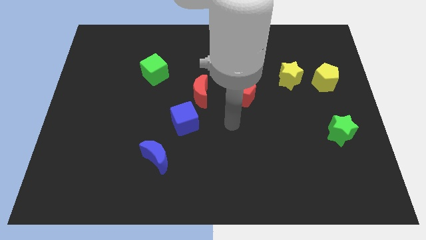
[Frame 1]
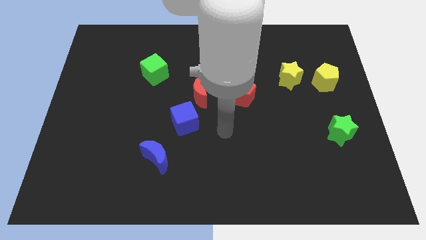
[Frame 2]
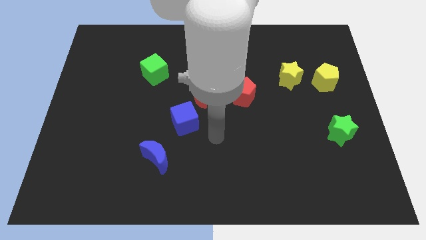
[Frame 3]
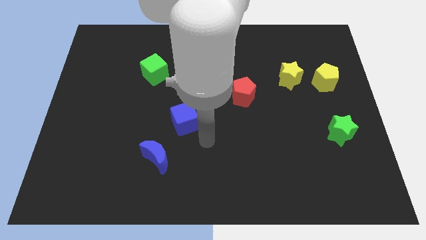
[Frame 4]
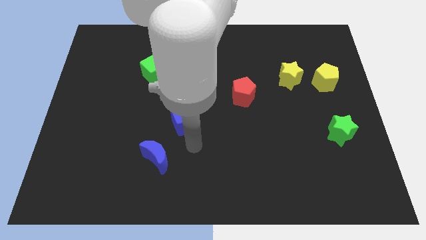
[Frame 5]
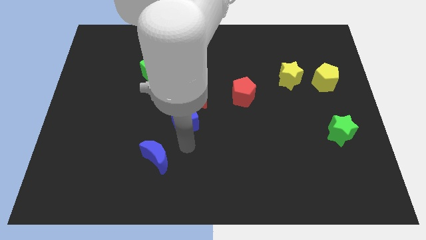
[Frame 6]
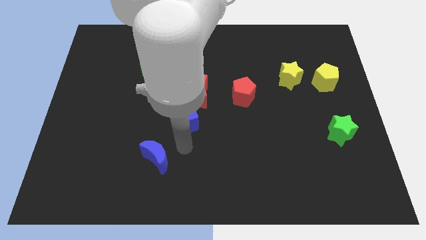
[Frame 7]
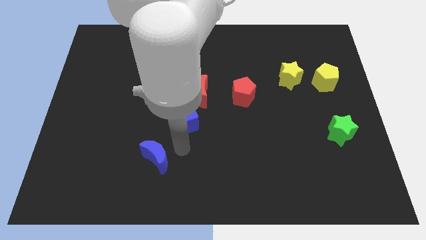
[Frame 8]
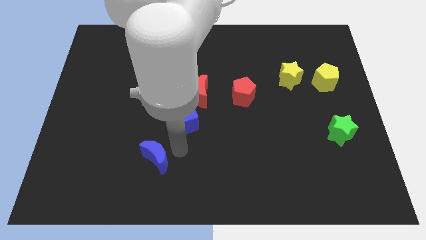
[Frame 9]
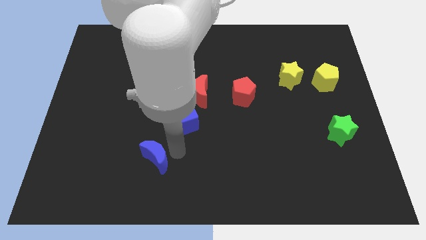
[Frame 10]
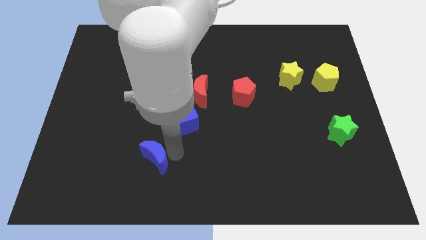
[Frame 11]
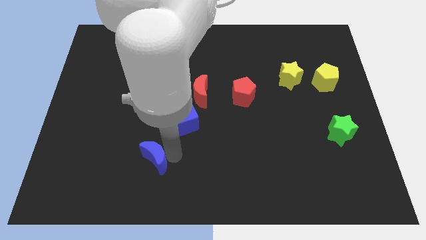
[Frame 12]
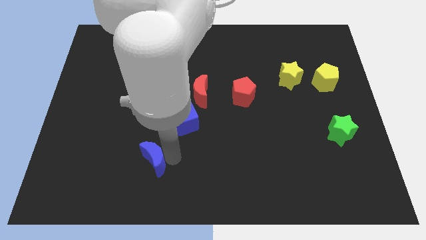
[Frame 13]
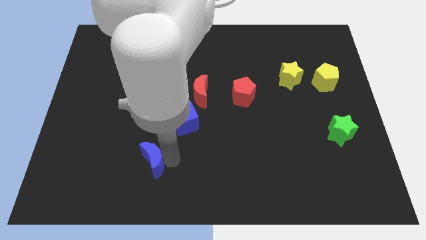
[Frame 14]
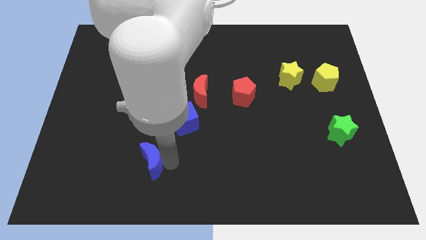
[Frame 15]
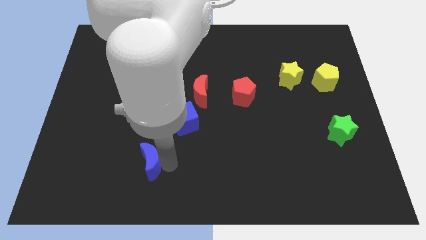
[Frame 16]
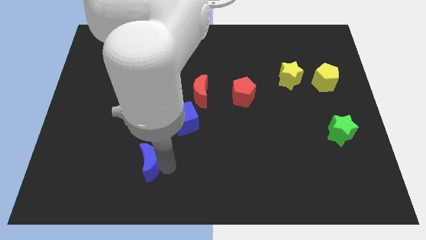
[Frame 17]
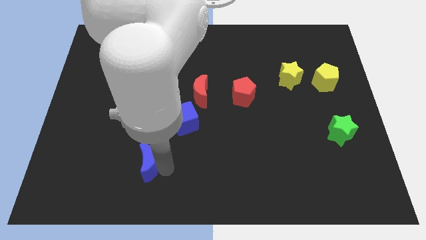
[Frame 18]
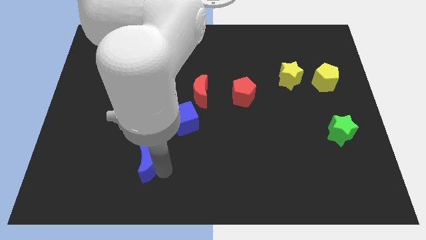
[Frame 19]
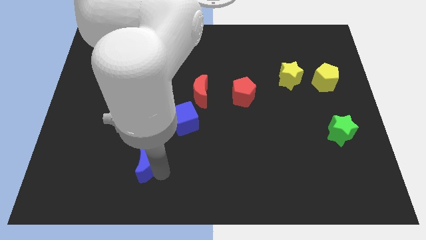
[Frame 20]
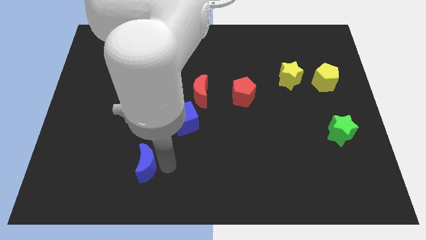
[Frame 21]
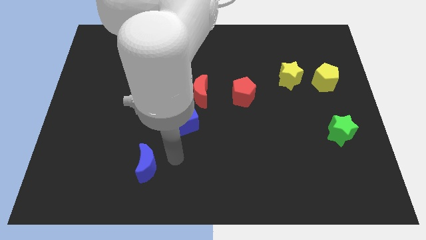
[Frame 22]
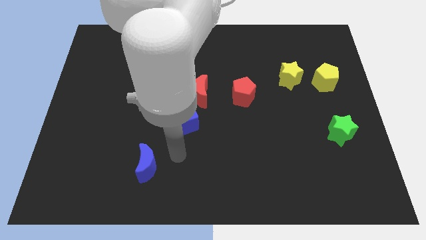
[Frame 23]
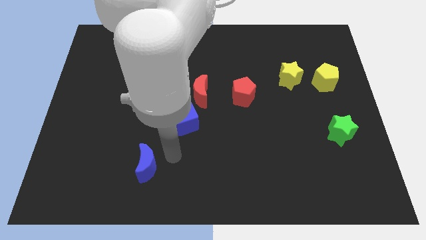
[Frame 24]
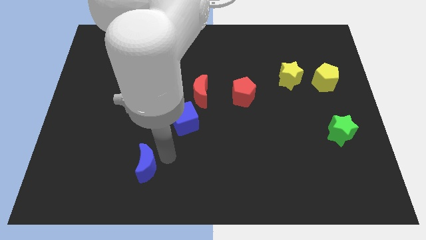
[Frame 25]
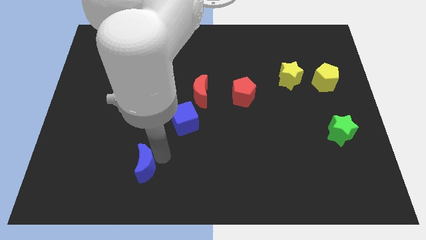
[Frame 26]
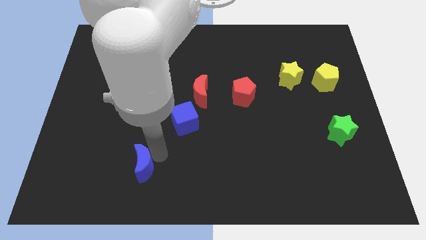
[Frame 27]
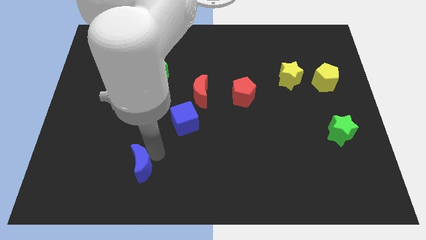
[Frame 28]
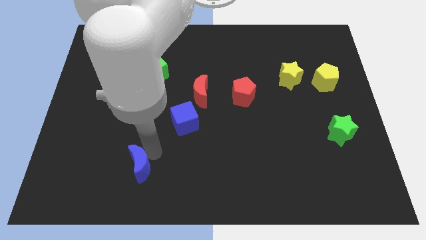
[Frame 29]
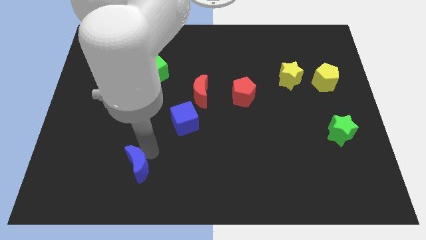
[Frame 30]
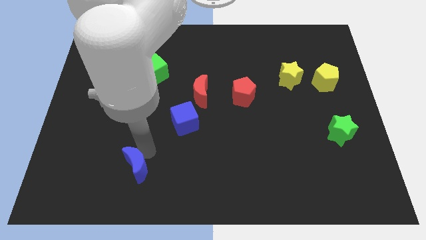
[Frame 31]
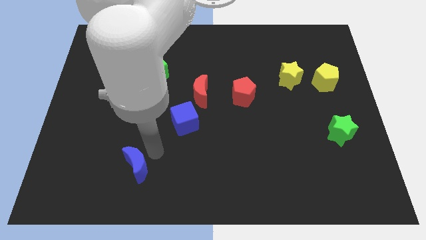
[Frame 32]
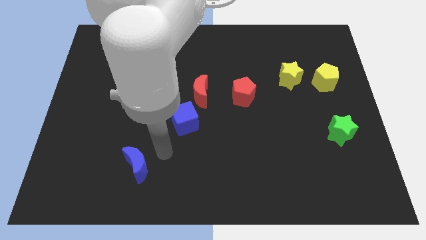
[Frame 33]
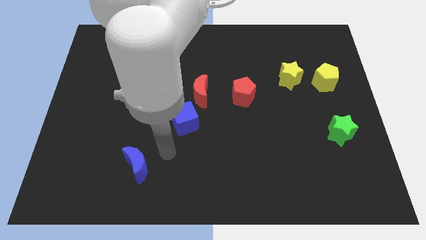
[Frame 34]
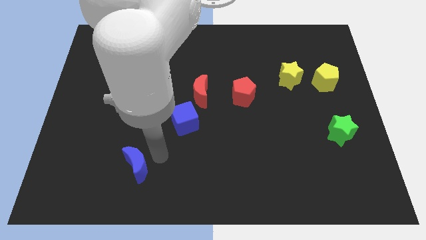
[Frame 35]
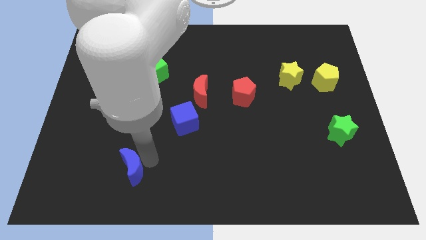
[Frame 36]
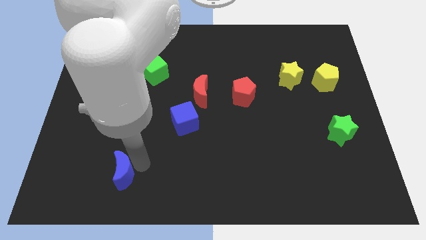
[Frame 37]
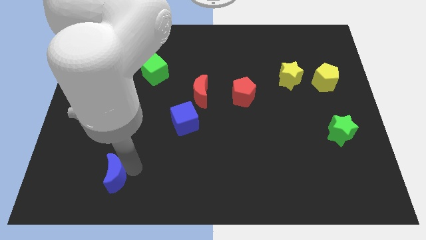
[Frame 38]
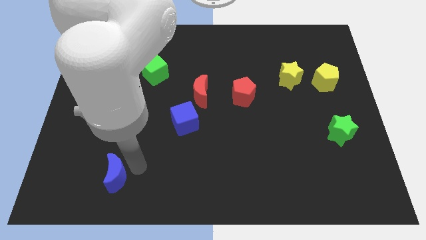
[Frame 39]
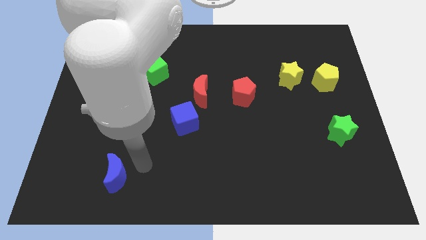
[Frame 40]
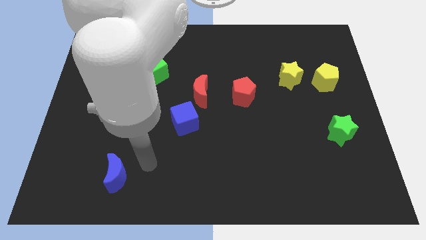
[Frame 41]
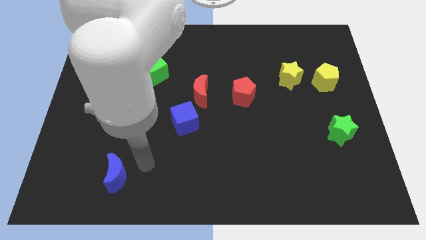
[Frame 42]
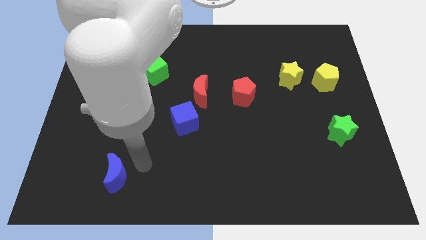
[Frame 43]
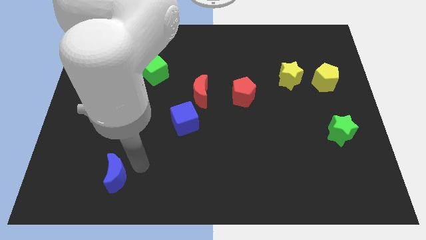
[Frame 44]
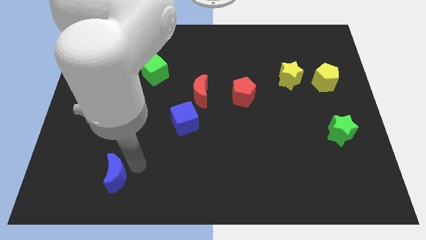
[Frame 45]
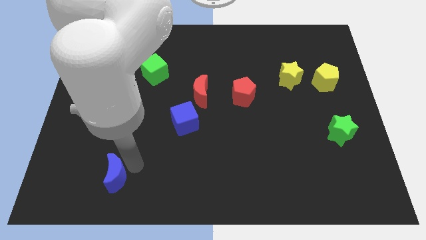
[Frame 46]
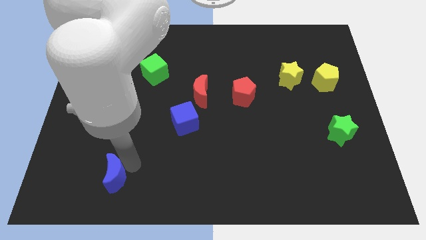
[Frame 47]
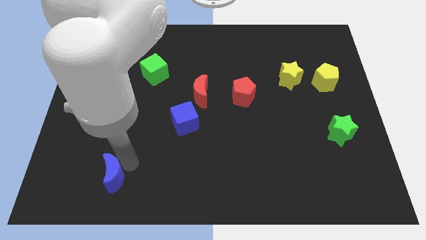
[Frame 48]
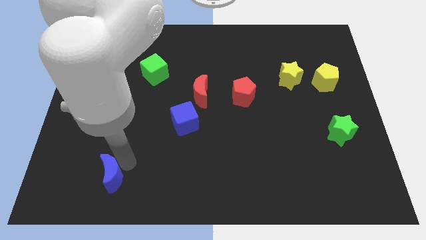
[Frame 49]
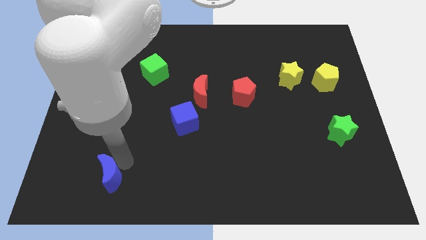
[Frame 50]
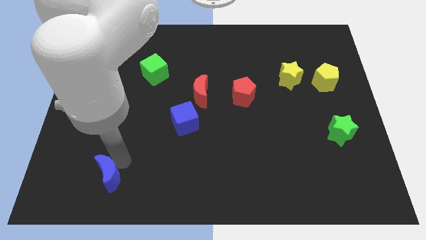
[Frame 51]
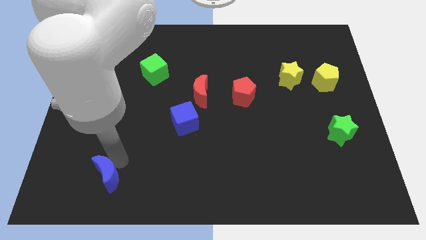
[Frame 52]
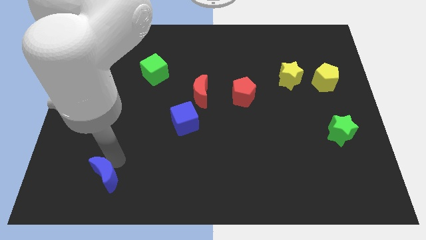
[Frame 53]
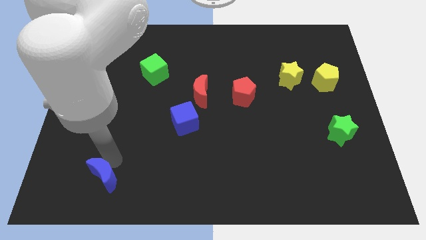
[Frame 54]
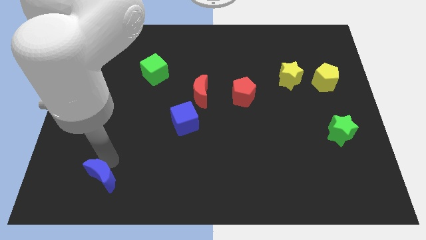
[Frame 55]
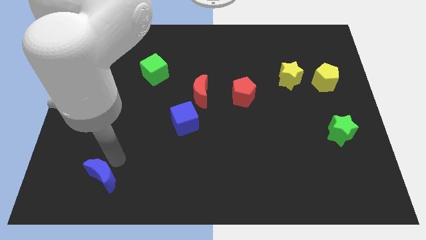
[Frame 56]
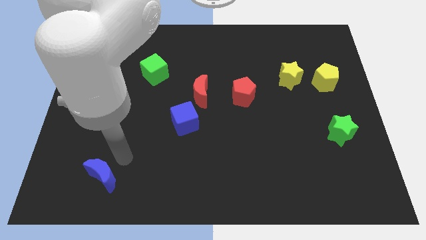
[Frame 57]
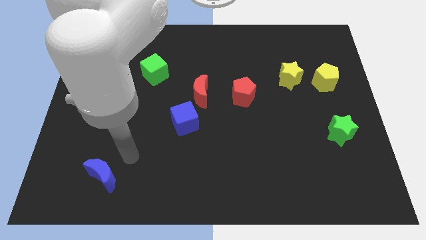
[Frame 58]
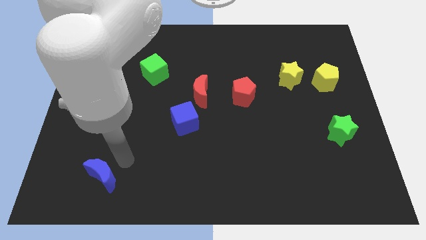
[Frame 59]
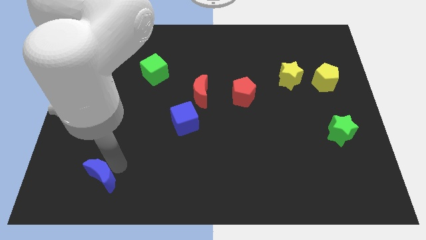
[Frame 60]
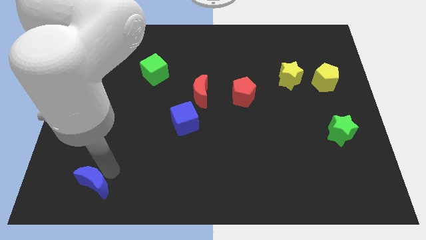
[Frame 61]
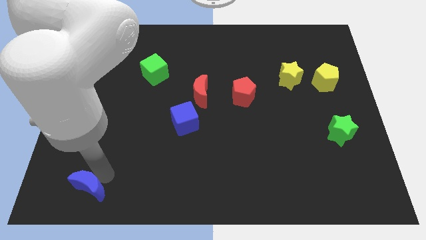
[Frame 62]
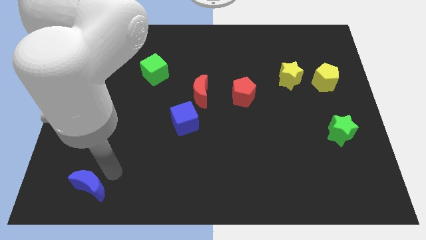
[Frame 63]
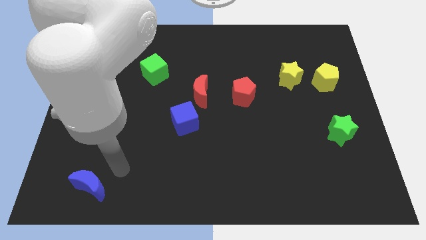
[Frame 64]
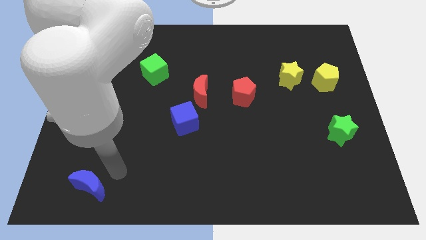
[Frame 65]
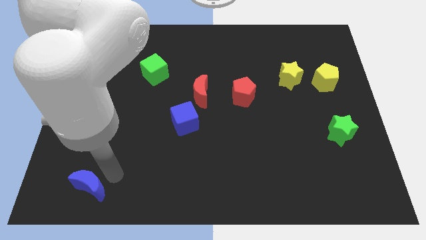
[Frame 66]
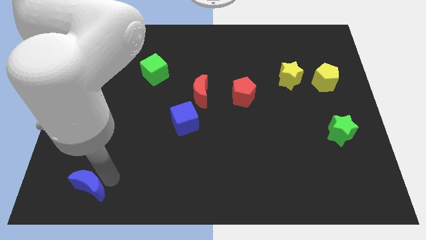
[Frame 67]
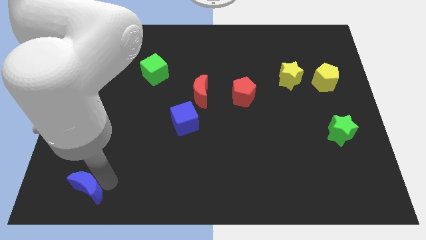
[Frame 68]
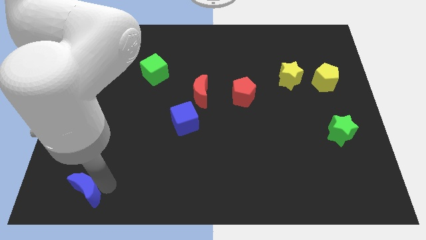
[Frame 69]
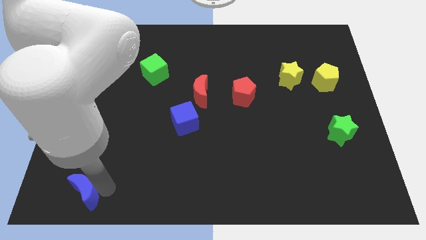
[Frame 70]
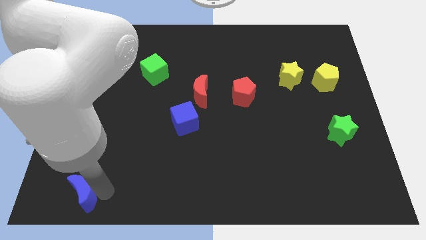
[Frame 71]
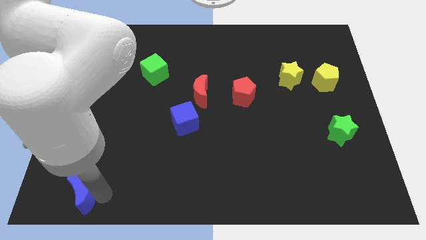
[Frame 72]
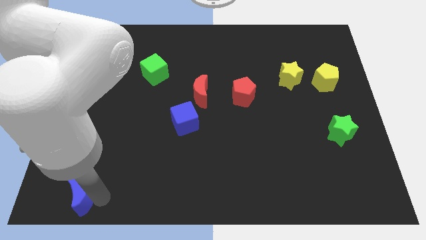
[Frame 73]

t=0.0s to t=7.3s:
push the blue moon to the bottom left corner

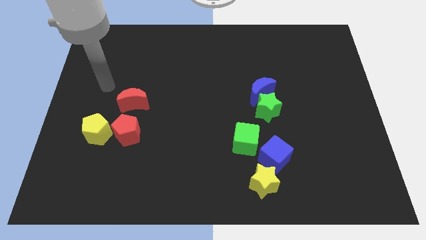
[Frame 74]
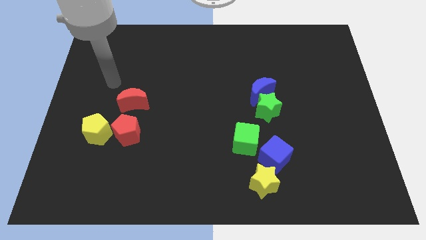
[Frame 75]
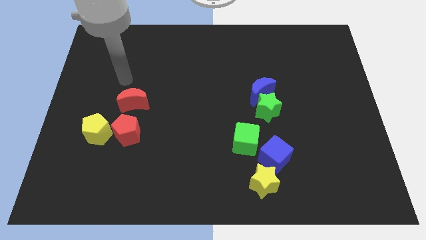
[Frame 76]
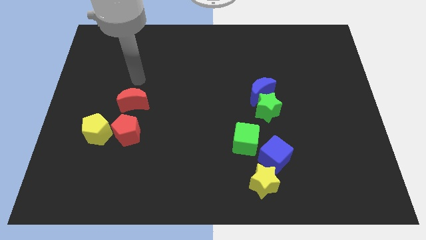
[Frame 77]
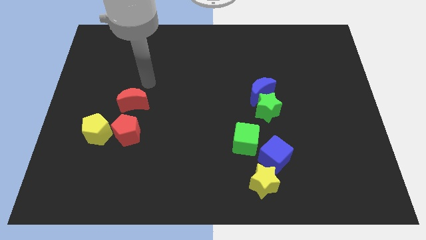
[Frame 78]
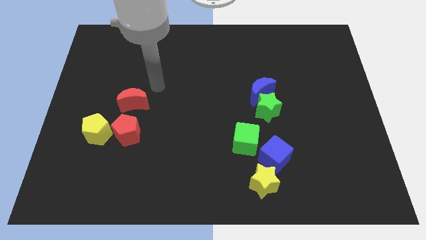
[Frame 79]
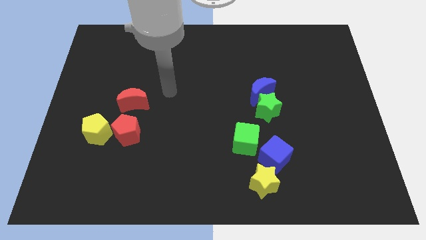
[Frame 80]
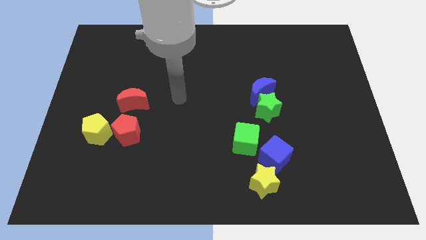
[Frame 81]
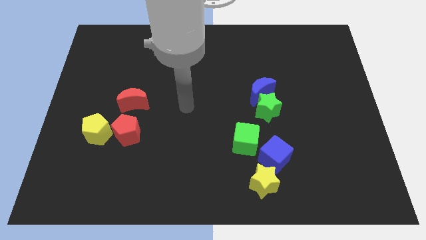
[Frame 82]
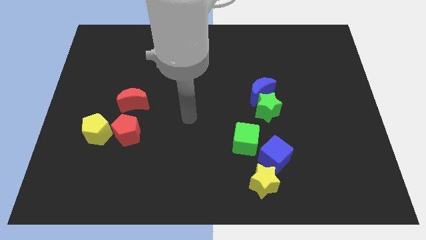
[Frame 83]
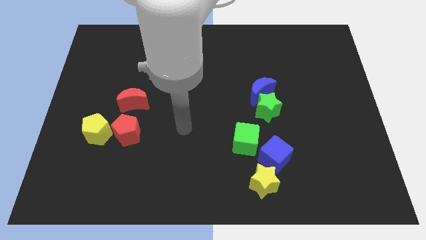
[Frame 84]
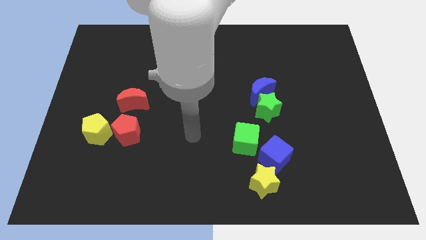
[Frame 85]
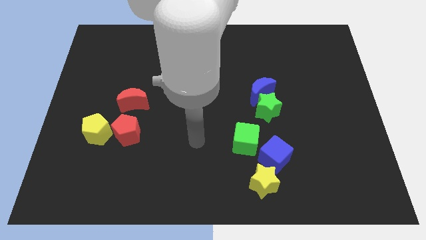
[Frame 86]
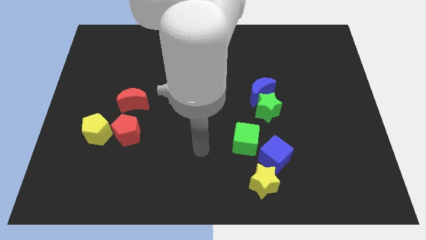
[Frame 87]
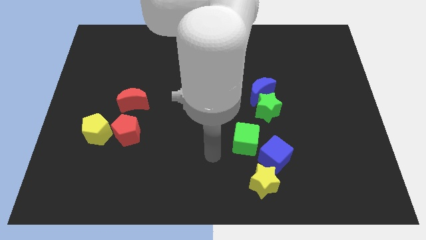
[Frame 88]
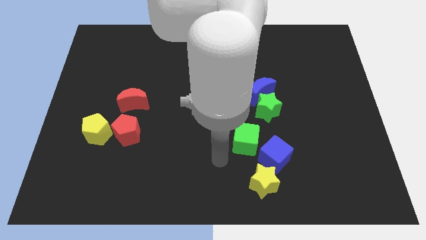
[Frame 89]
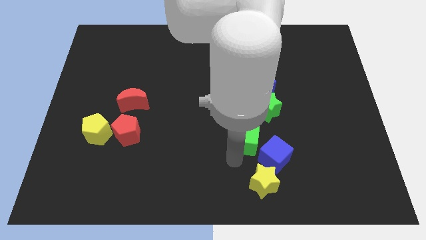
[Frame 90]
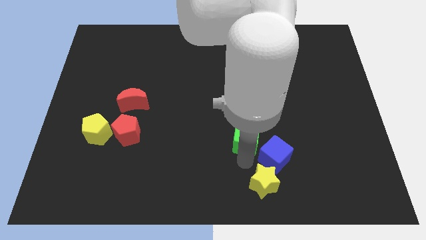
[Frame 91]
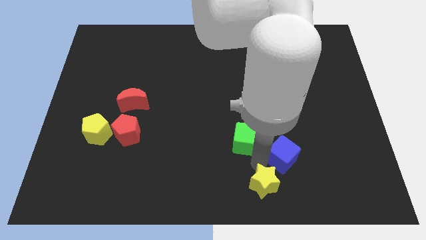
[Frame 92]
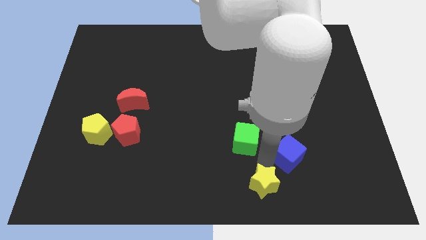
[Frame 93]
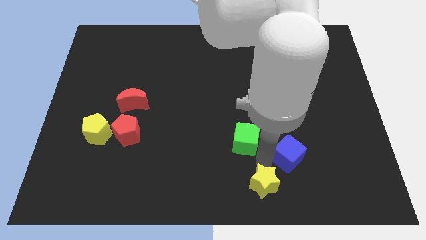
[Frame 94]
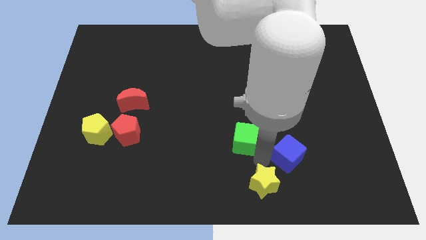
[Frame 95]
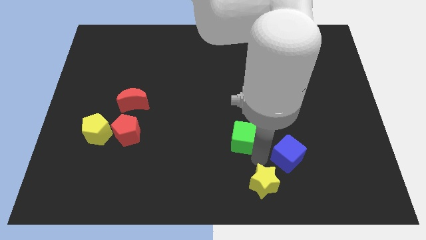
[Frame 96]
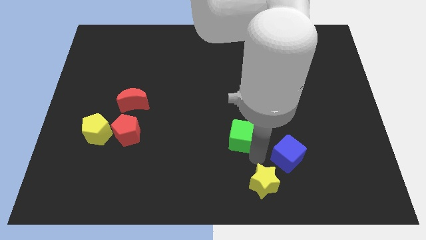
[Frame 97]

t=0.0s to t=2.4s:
push the green cube to the middle of the board
